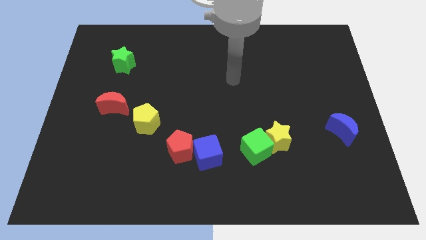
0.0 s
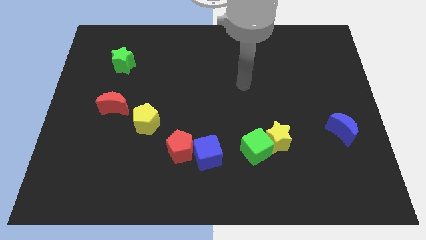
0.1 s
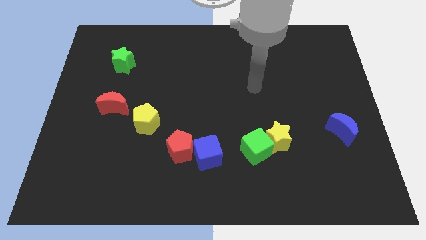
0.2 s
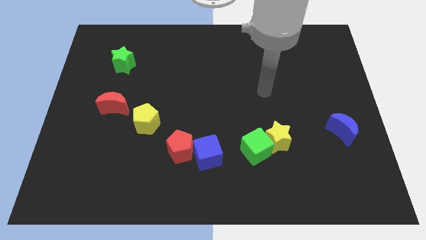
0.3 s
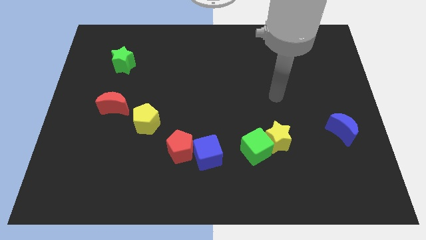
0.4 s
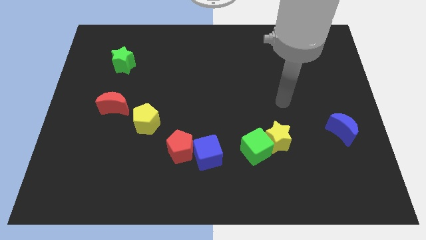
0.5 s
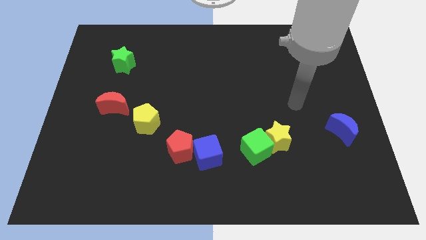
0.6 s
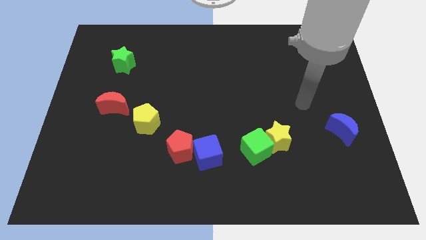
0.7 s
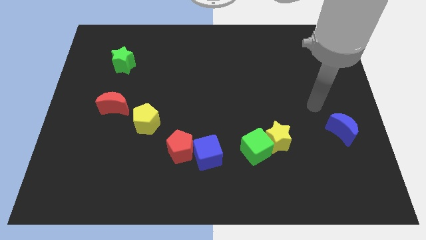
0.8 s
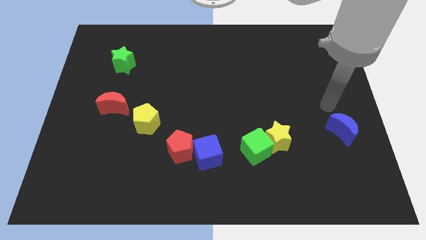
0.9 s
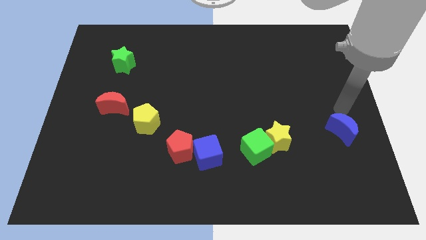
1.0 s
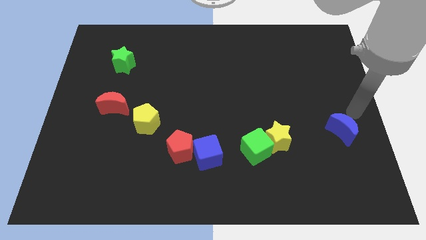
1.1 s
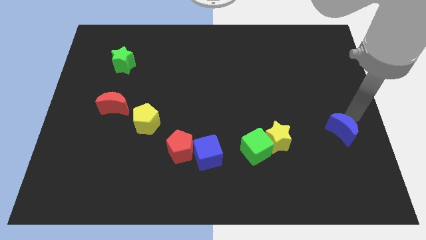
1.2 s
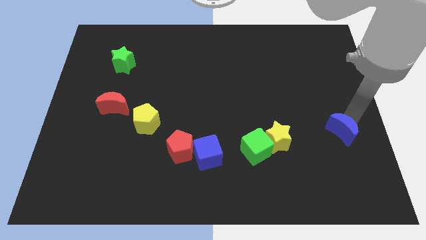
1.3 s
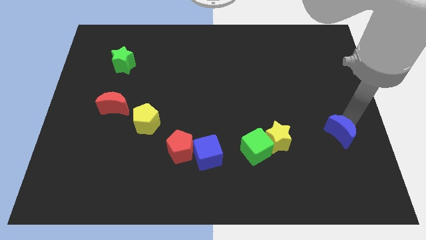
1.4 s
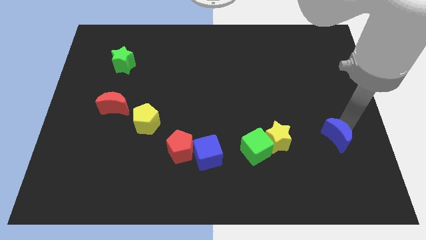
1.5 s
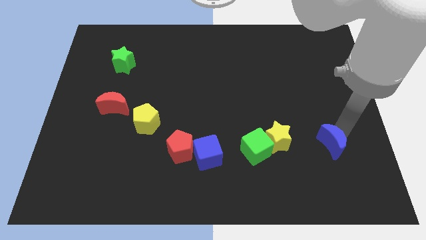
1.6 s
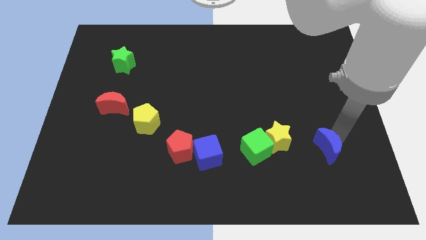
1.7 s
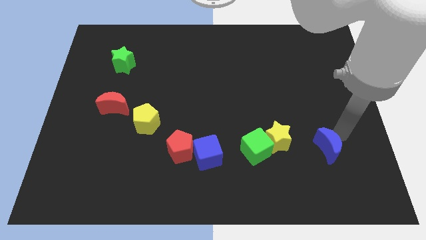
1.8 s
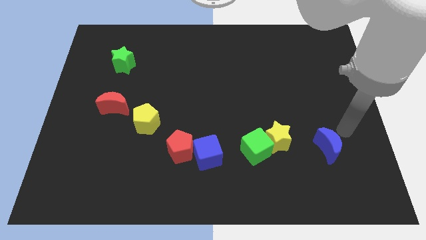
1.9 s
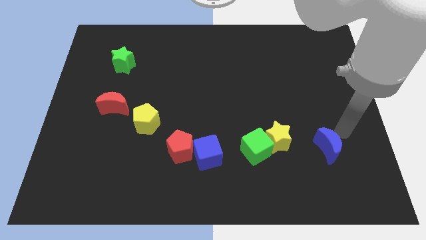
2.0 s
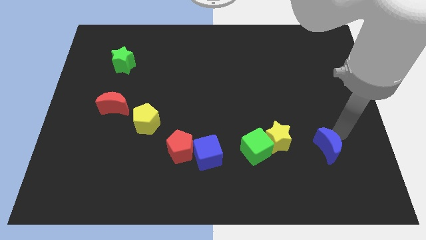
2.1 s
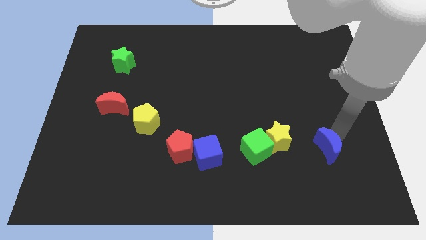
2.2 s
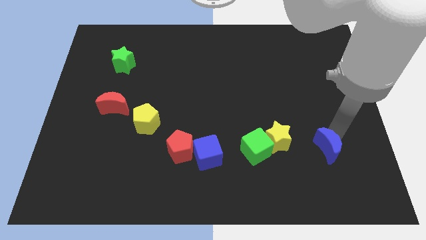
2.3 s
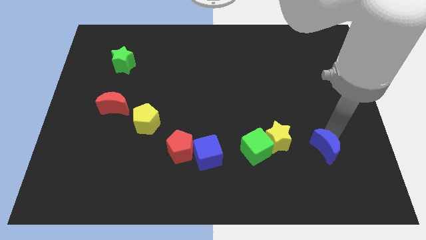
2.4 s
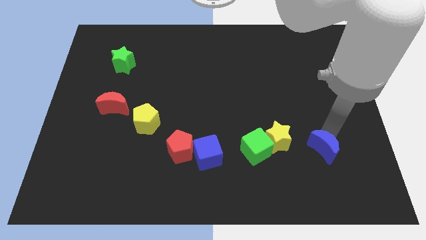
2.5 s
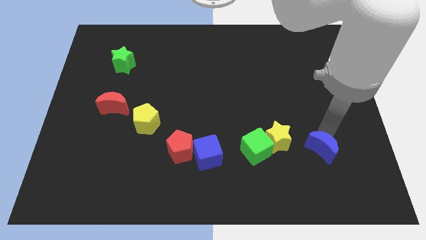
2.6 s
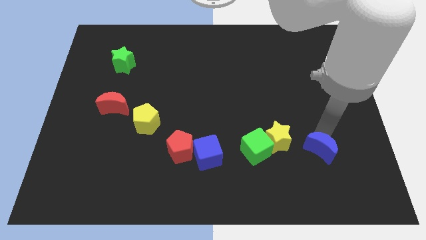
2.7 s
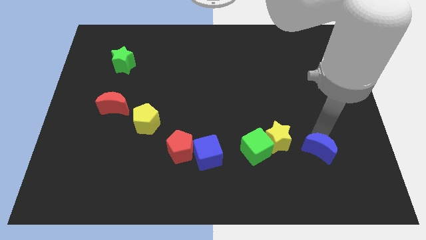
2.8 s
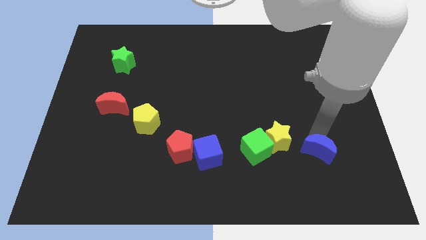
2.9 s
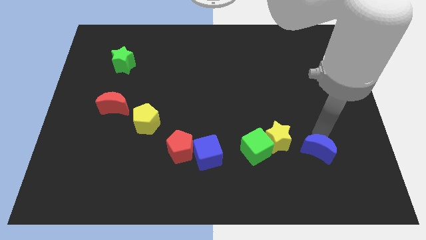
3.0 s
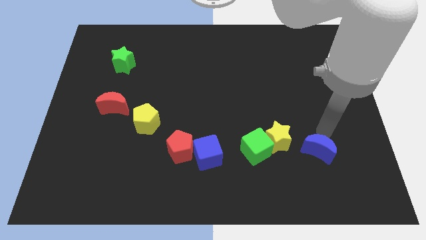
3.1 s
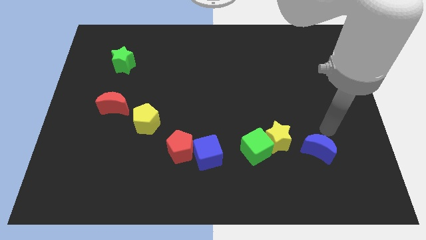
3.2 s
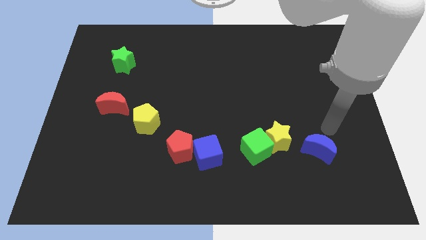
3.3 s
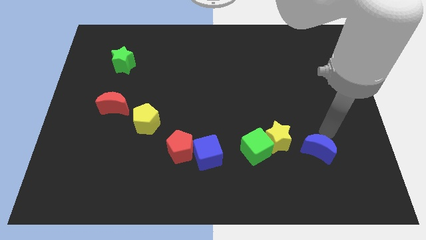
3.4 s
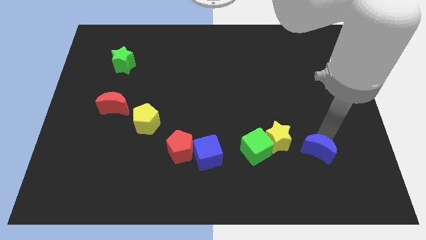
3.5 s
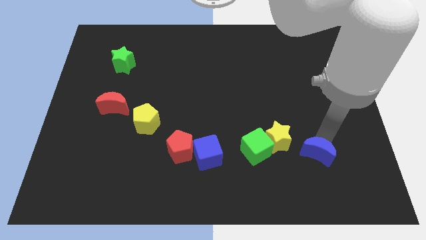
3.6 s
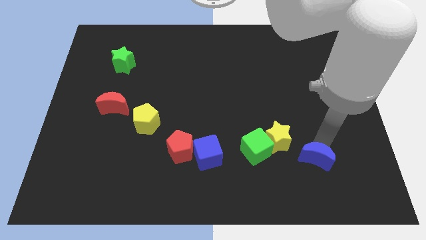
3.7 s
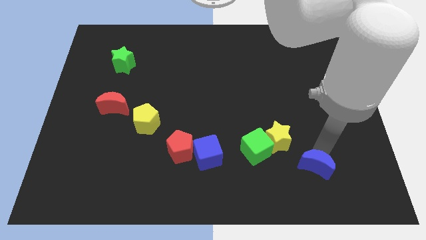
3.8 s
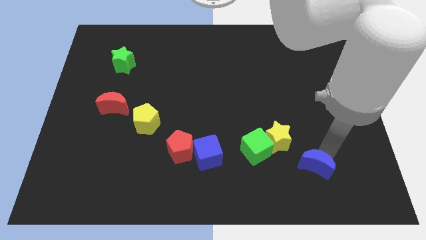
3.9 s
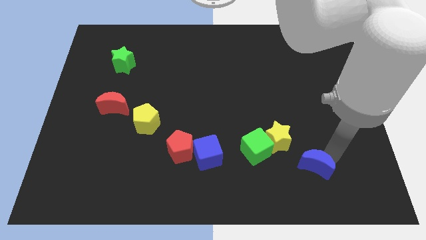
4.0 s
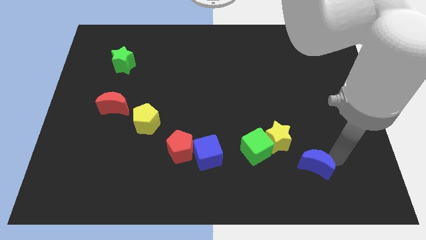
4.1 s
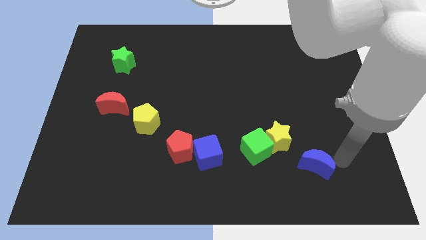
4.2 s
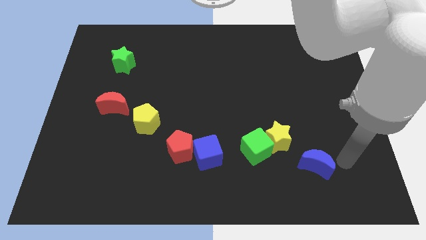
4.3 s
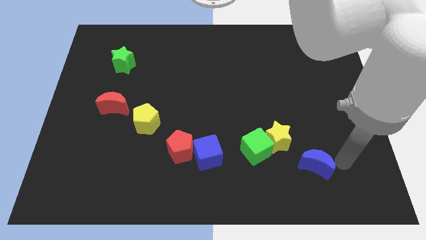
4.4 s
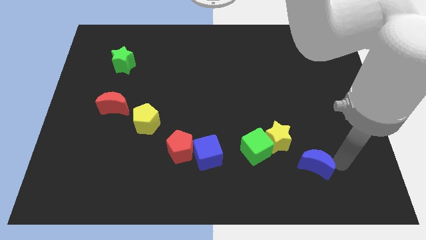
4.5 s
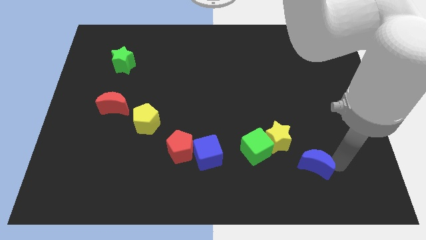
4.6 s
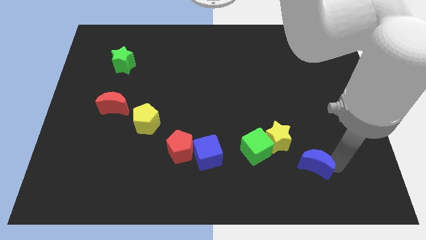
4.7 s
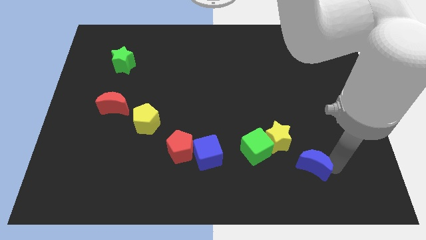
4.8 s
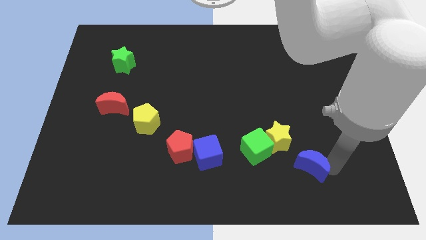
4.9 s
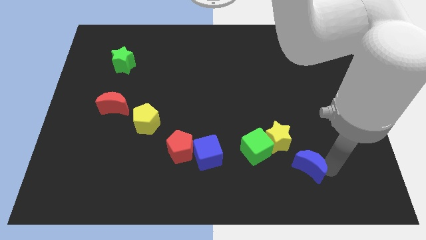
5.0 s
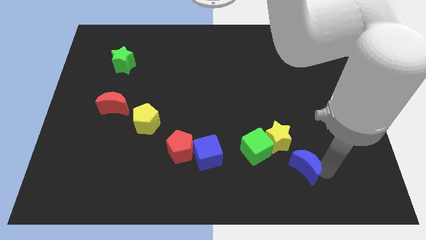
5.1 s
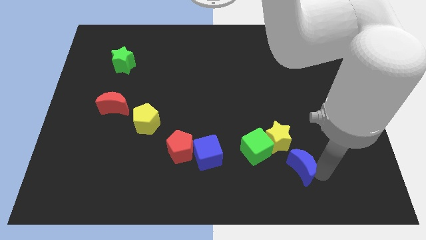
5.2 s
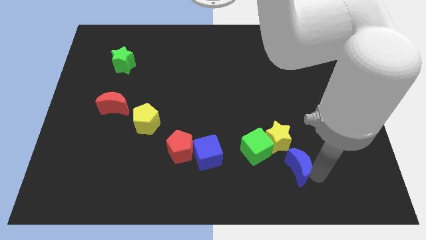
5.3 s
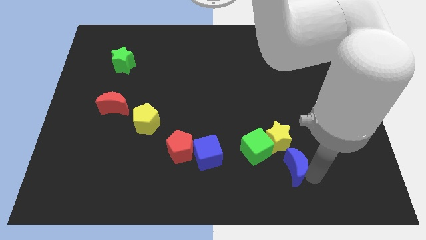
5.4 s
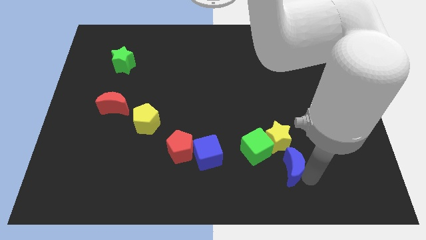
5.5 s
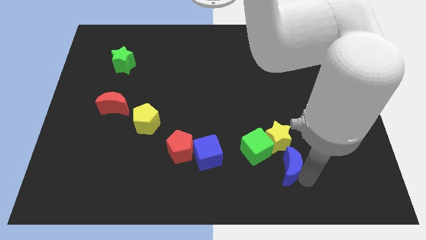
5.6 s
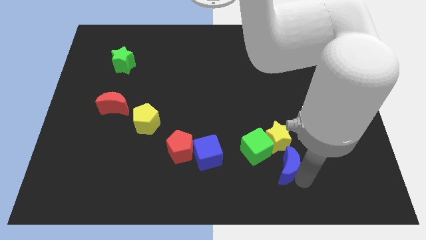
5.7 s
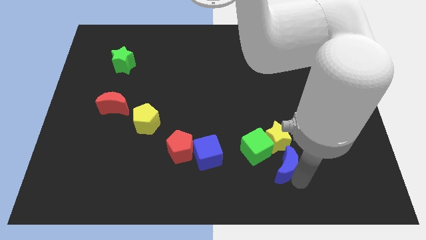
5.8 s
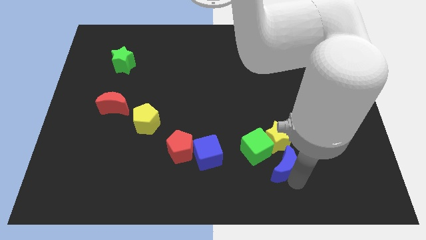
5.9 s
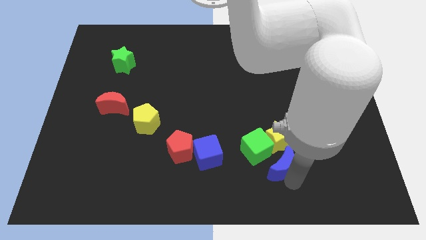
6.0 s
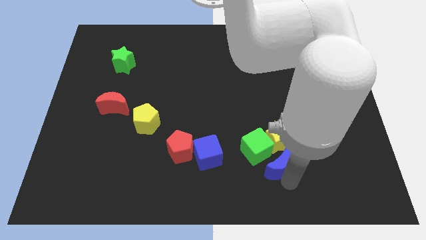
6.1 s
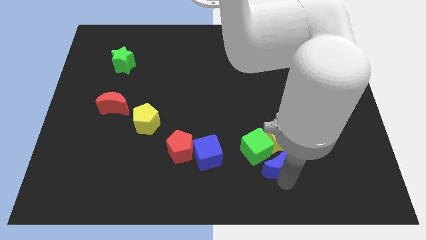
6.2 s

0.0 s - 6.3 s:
put the blue moon close to the green cube

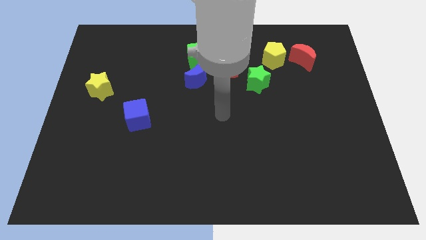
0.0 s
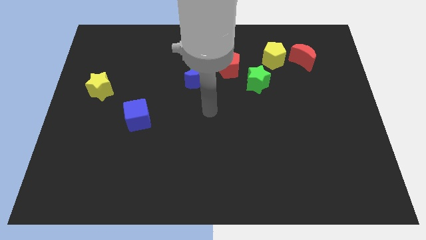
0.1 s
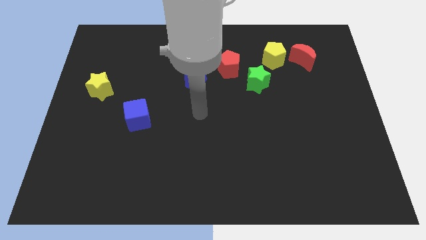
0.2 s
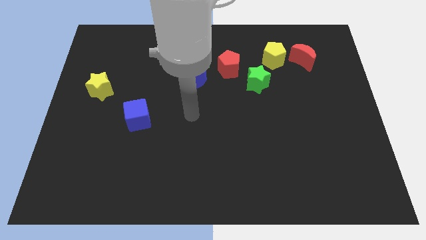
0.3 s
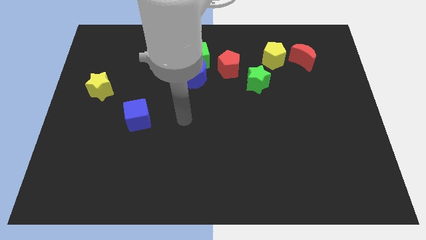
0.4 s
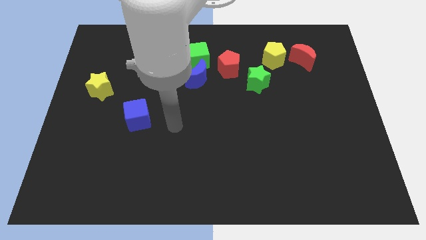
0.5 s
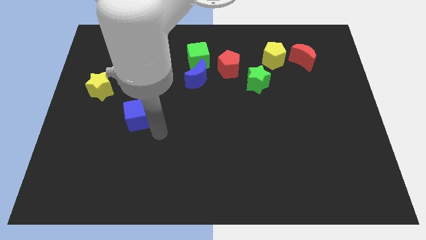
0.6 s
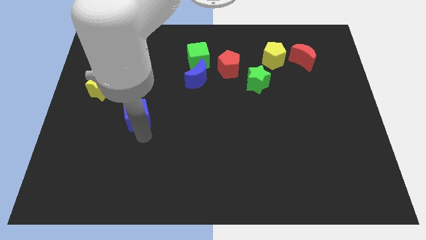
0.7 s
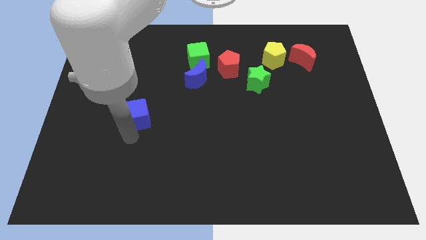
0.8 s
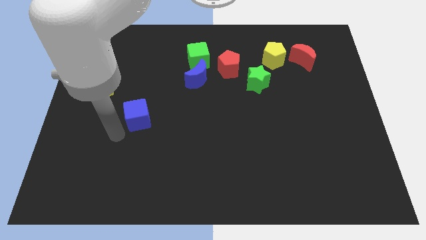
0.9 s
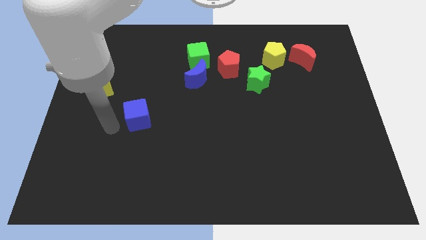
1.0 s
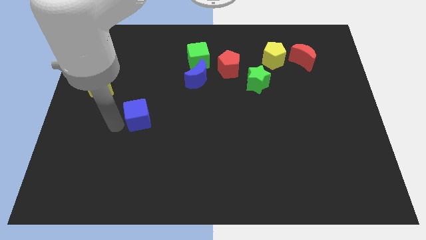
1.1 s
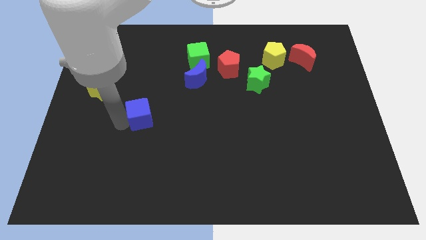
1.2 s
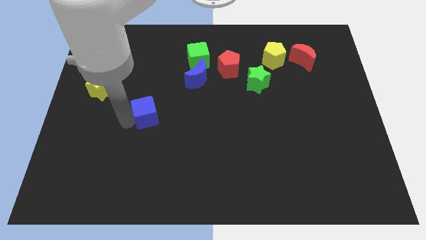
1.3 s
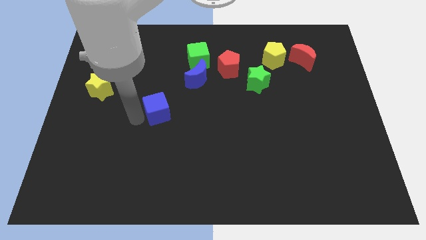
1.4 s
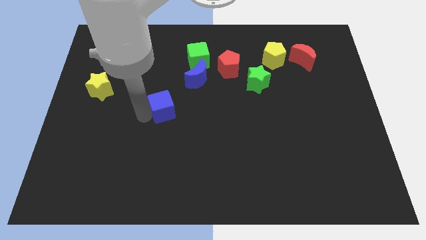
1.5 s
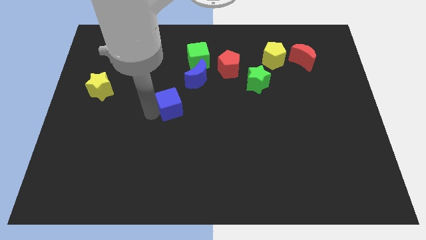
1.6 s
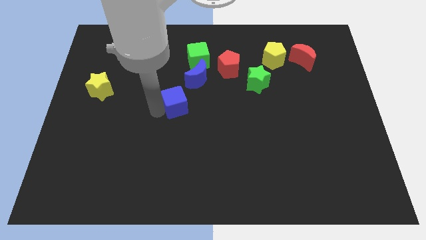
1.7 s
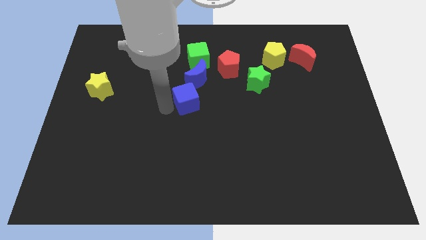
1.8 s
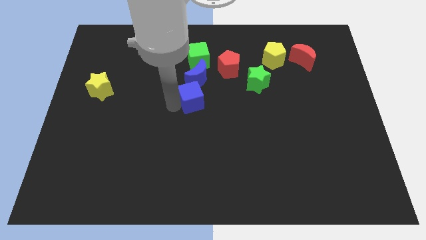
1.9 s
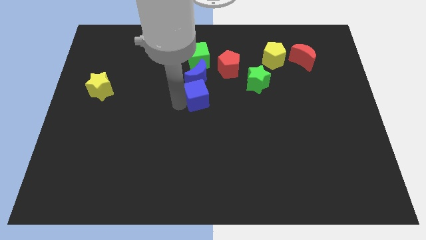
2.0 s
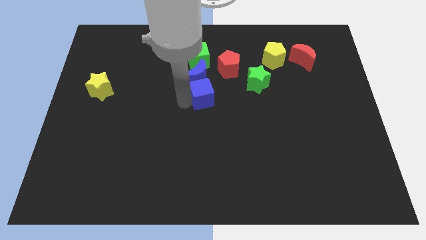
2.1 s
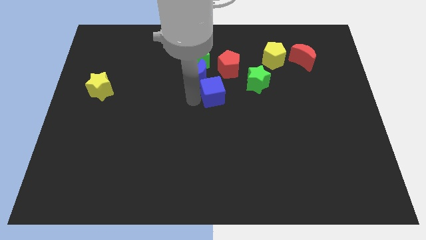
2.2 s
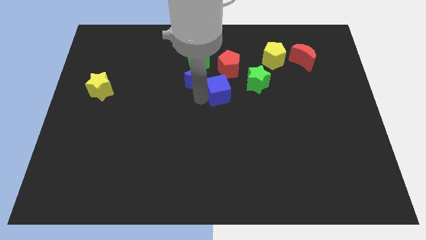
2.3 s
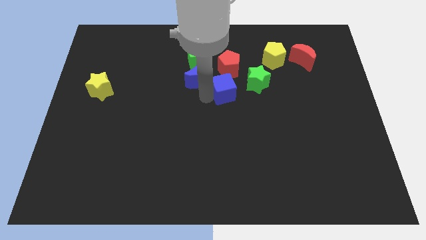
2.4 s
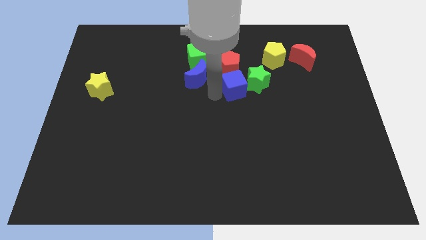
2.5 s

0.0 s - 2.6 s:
move the blue cube towards the green star
